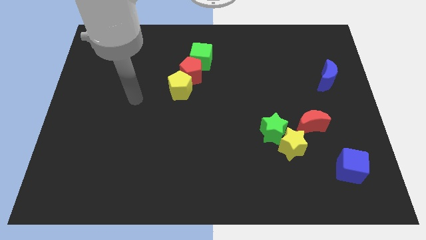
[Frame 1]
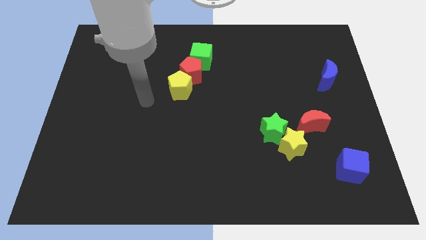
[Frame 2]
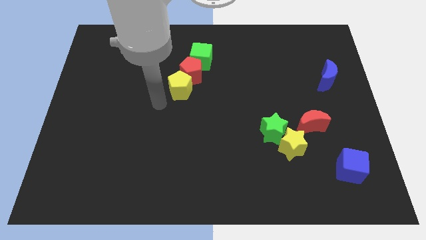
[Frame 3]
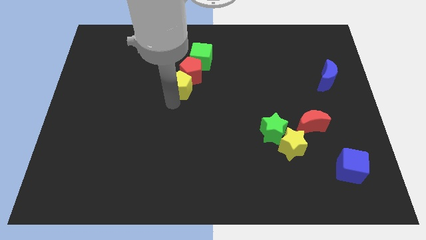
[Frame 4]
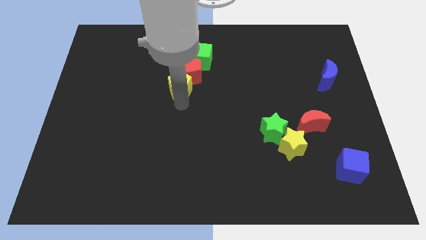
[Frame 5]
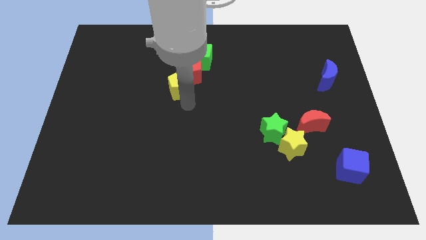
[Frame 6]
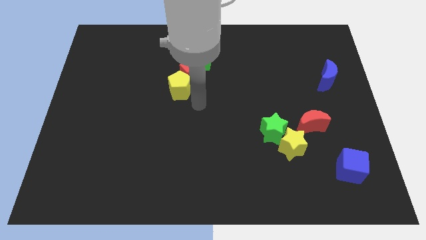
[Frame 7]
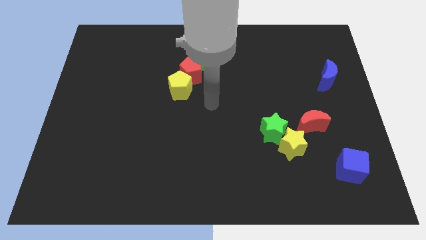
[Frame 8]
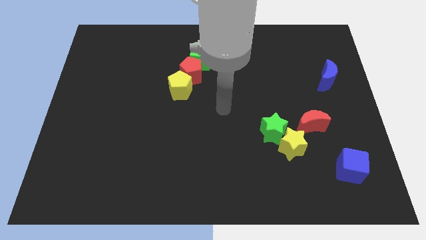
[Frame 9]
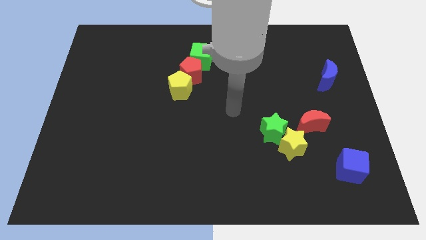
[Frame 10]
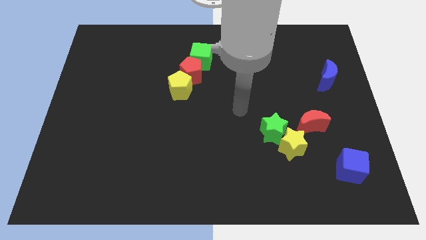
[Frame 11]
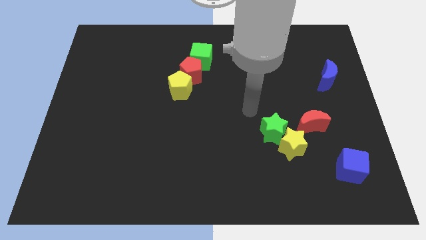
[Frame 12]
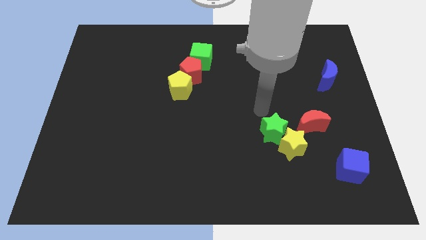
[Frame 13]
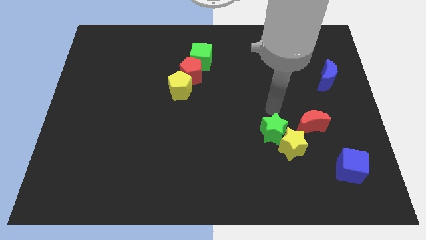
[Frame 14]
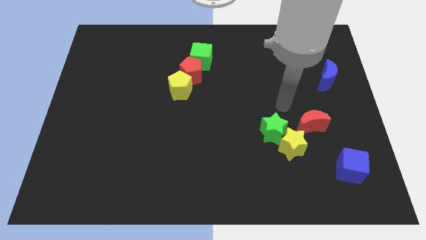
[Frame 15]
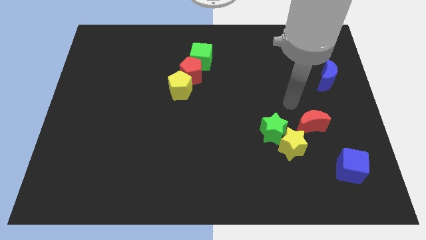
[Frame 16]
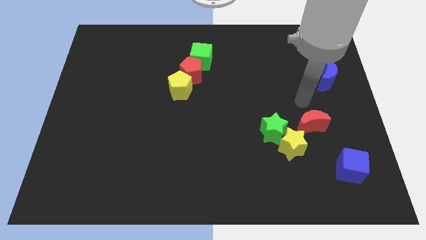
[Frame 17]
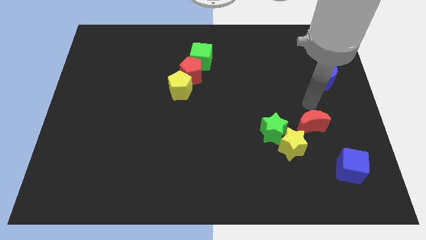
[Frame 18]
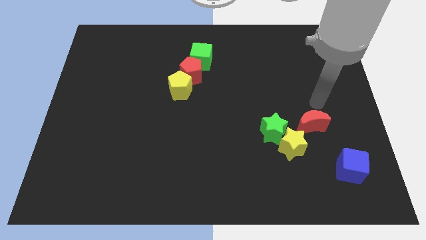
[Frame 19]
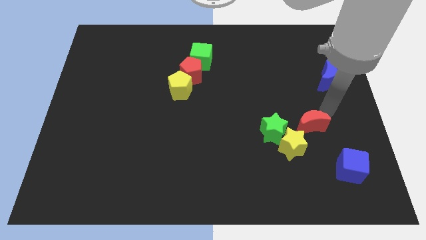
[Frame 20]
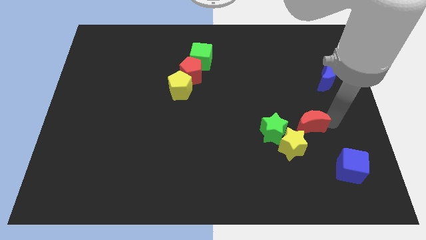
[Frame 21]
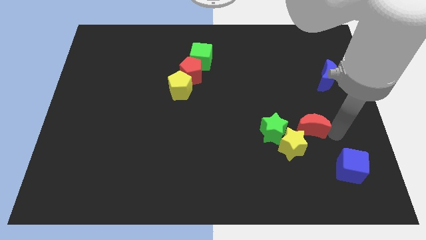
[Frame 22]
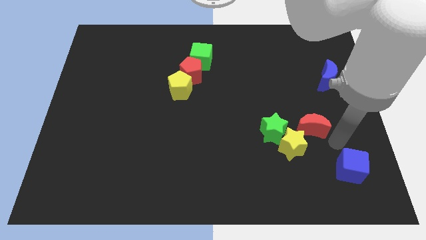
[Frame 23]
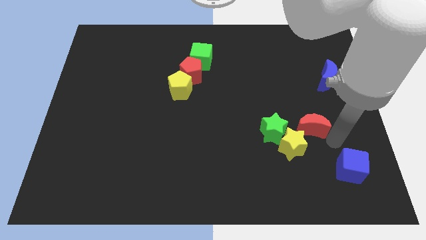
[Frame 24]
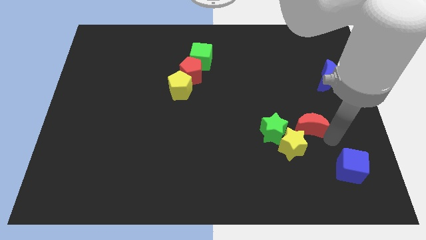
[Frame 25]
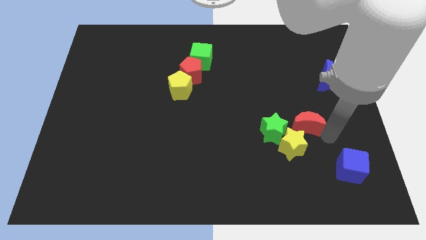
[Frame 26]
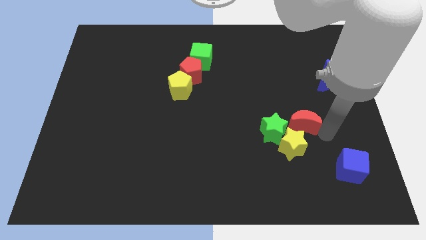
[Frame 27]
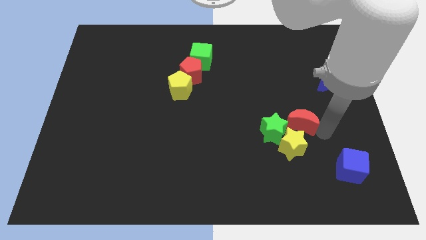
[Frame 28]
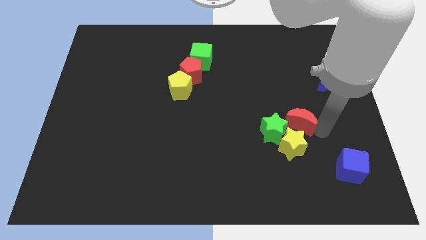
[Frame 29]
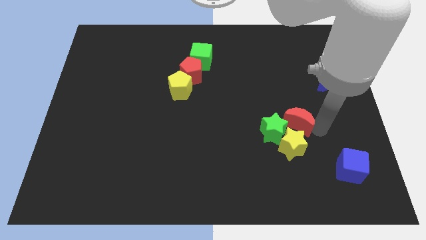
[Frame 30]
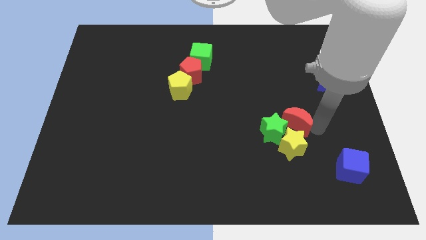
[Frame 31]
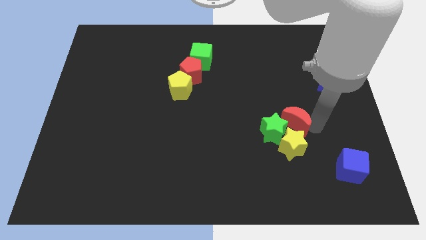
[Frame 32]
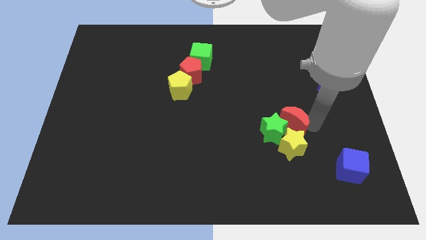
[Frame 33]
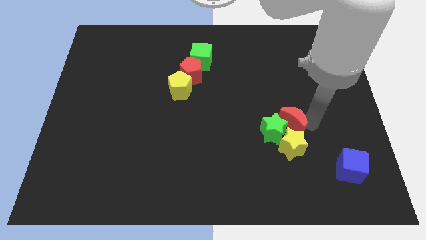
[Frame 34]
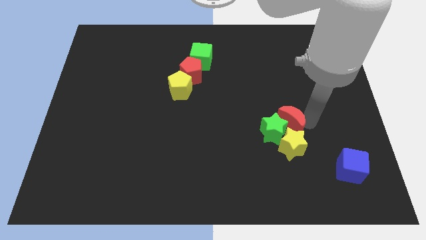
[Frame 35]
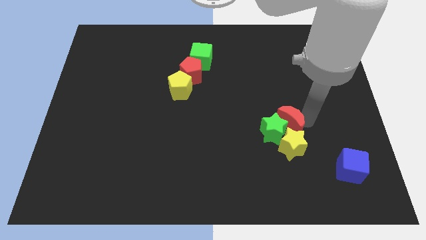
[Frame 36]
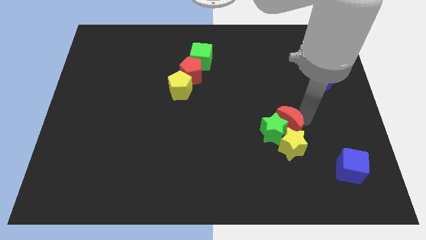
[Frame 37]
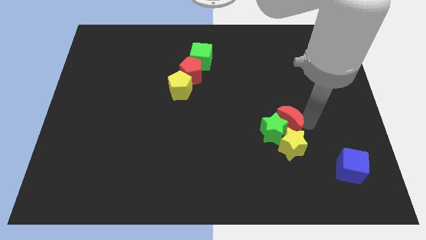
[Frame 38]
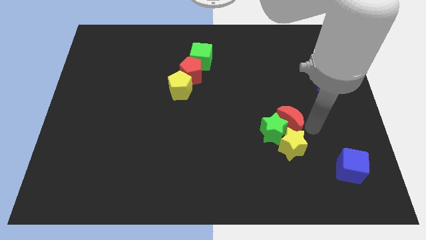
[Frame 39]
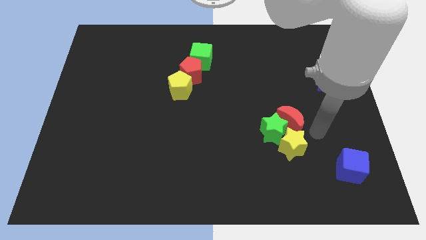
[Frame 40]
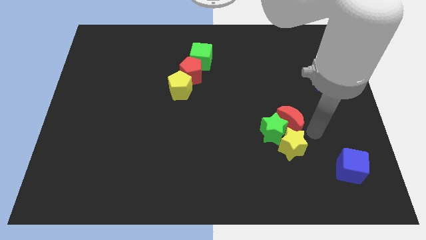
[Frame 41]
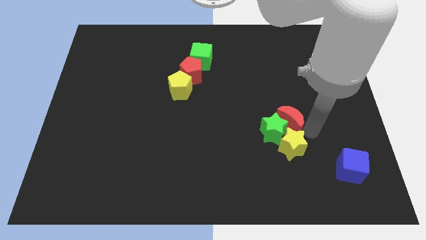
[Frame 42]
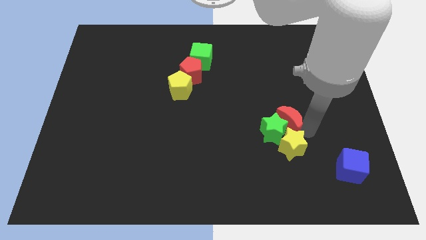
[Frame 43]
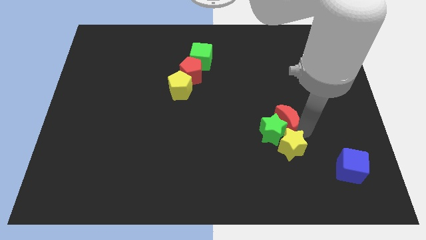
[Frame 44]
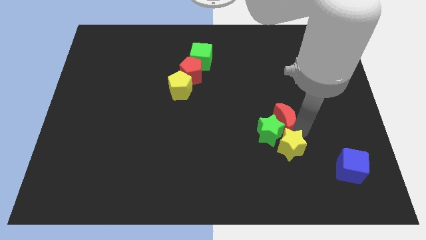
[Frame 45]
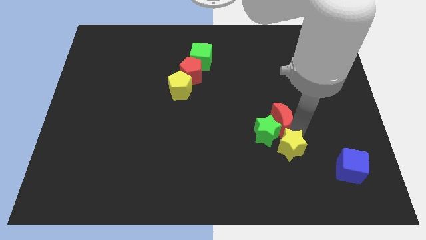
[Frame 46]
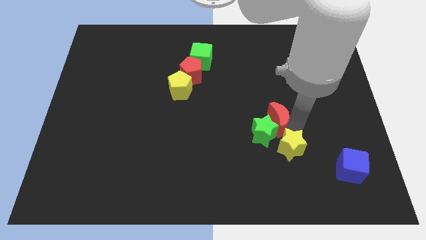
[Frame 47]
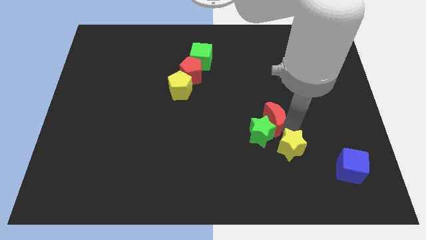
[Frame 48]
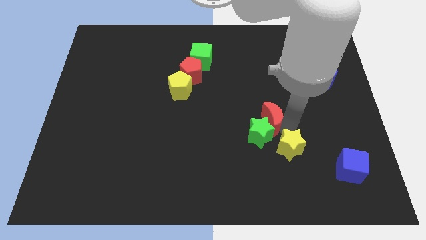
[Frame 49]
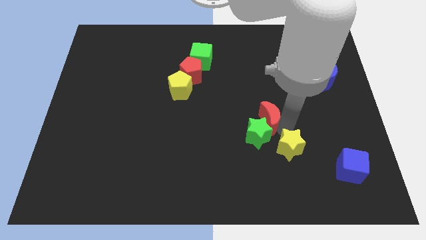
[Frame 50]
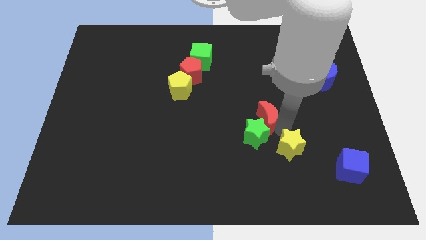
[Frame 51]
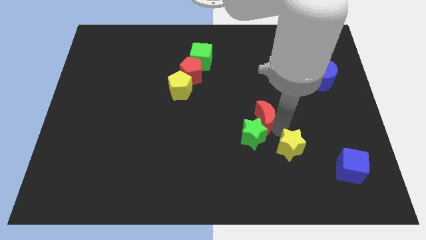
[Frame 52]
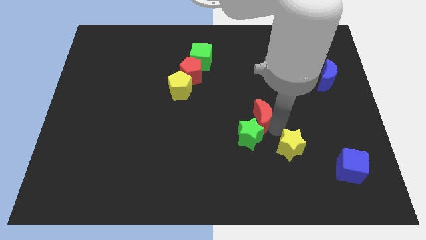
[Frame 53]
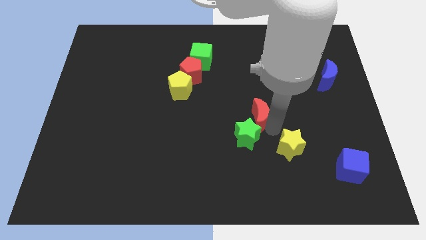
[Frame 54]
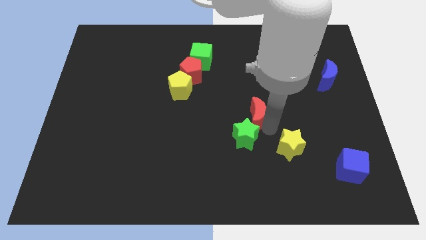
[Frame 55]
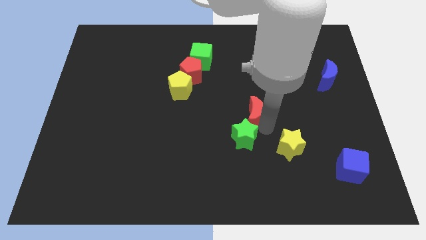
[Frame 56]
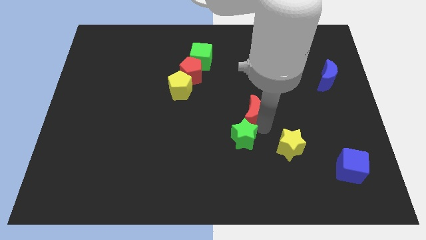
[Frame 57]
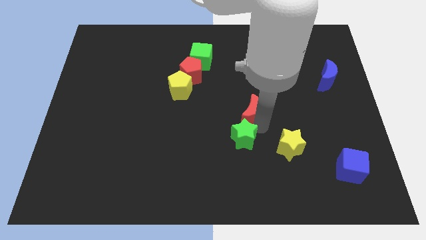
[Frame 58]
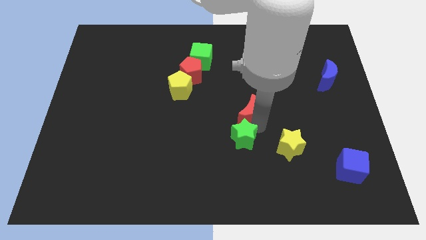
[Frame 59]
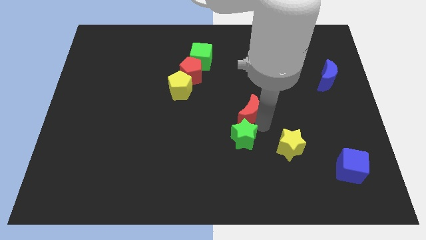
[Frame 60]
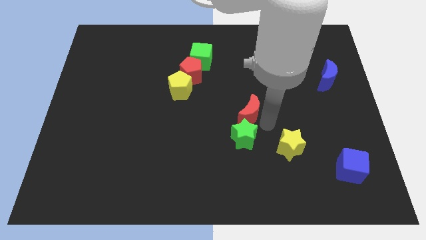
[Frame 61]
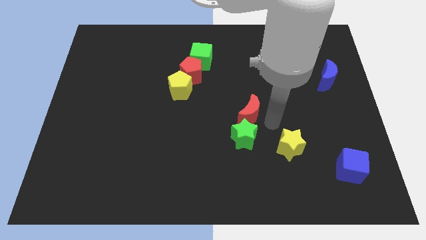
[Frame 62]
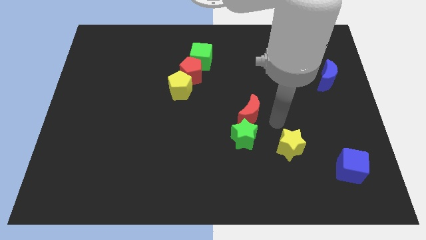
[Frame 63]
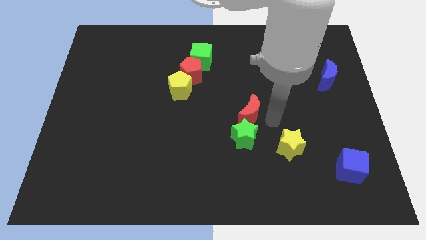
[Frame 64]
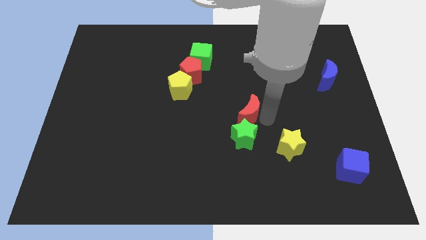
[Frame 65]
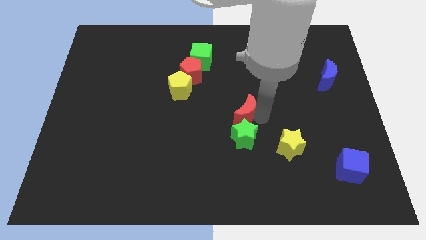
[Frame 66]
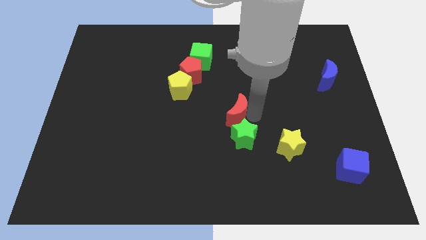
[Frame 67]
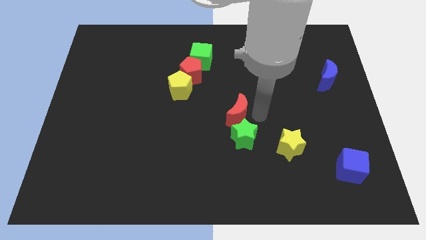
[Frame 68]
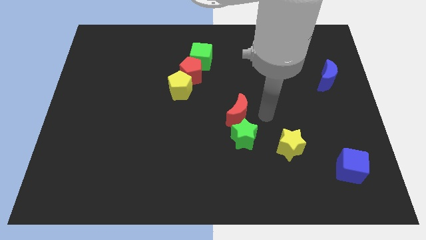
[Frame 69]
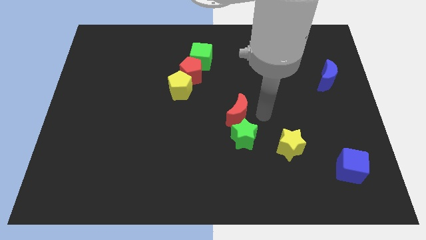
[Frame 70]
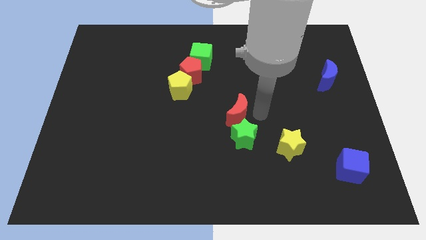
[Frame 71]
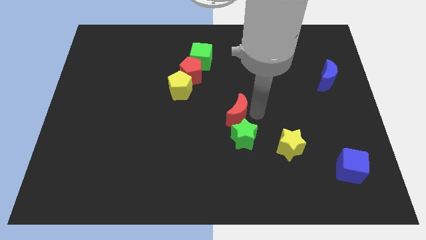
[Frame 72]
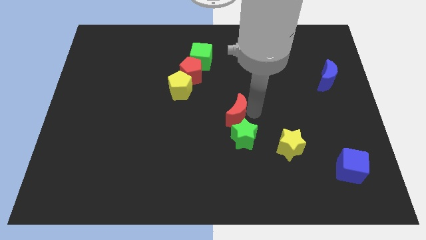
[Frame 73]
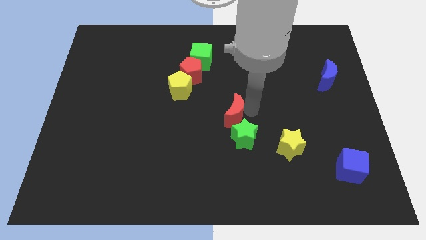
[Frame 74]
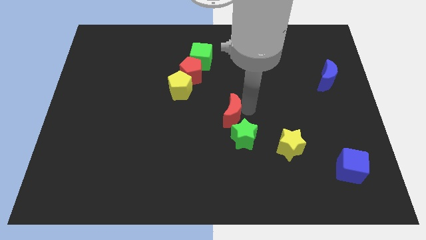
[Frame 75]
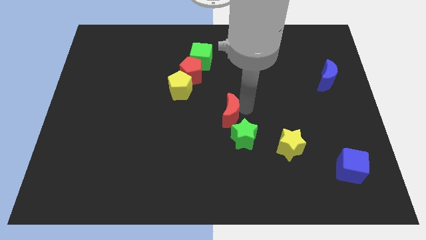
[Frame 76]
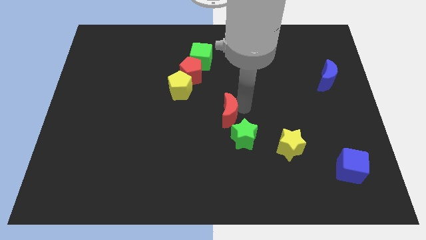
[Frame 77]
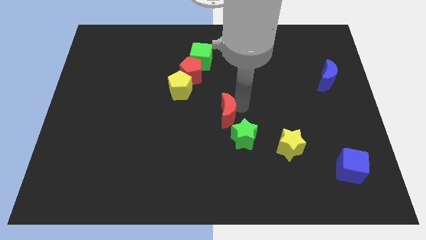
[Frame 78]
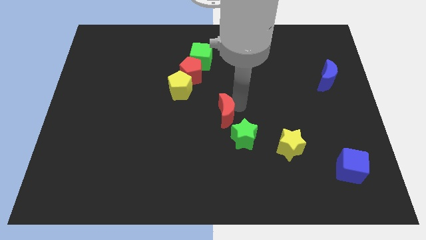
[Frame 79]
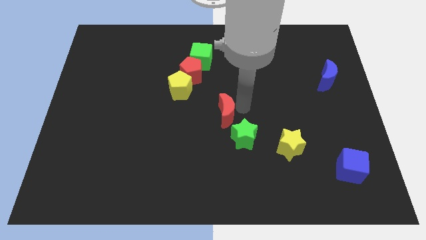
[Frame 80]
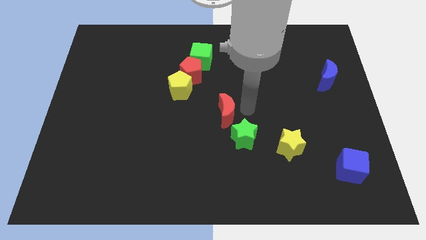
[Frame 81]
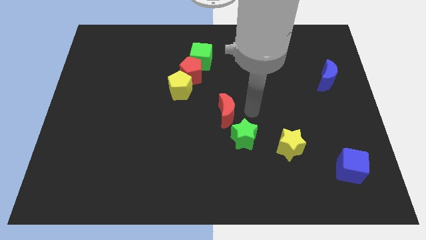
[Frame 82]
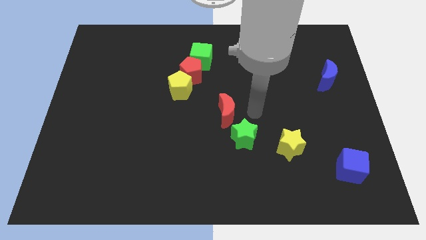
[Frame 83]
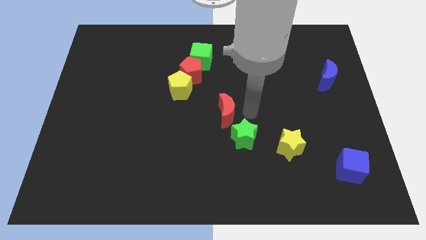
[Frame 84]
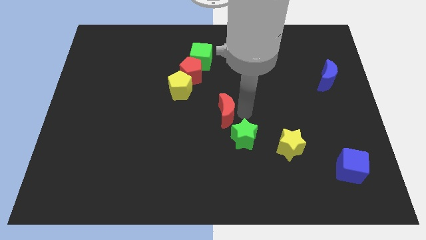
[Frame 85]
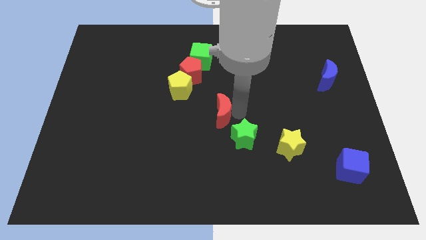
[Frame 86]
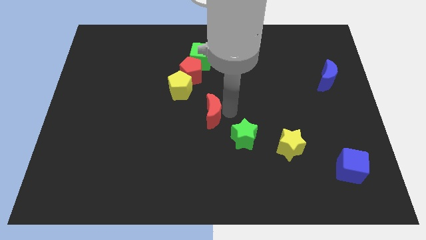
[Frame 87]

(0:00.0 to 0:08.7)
move the red moon to the left
